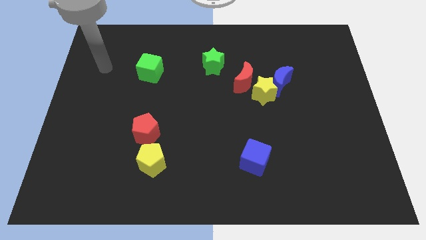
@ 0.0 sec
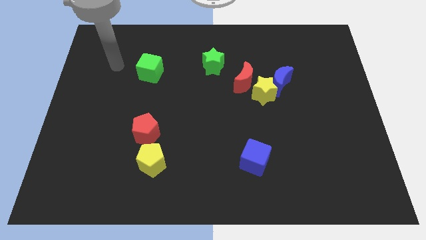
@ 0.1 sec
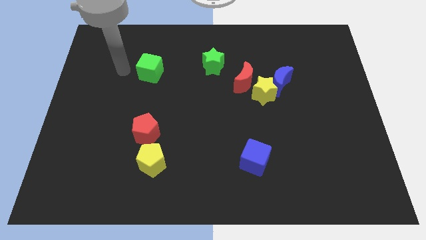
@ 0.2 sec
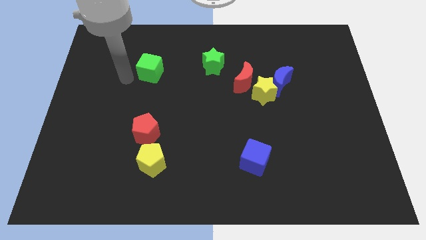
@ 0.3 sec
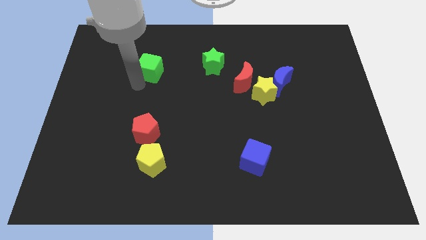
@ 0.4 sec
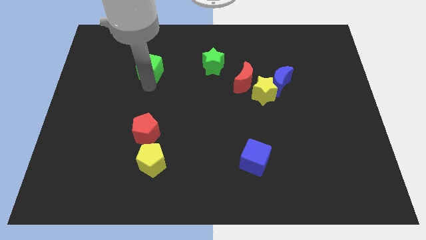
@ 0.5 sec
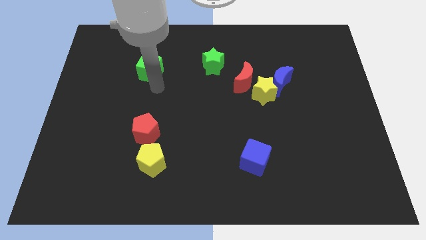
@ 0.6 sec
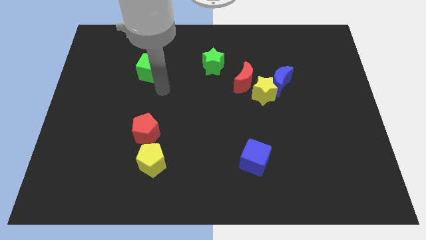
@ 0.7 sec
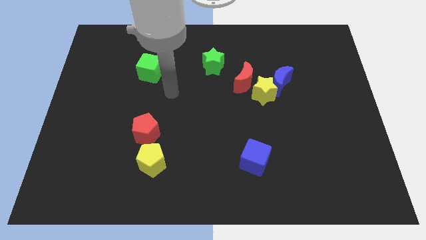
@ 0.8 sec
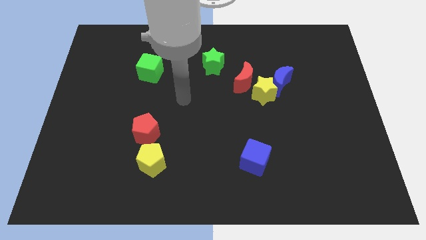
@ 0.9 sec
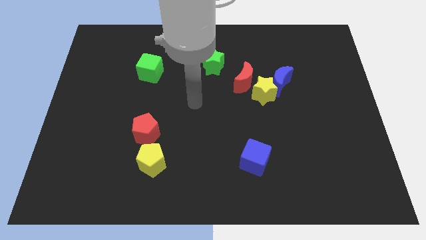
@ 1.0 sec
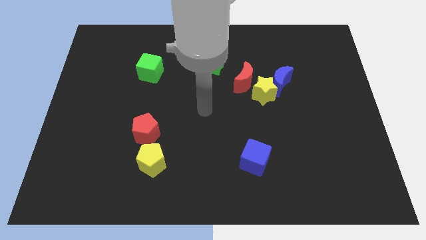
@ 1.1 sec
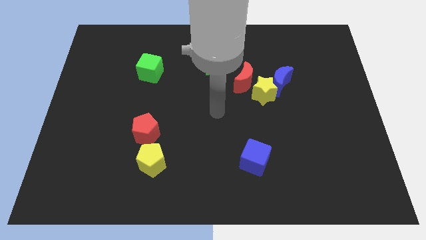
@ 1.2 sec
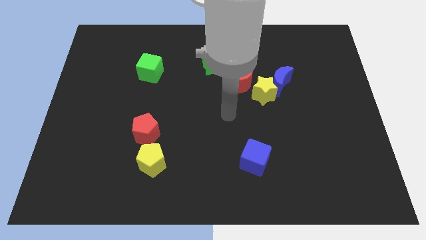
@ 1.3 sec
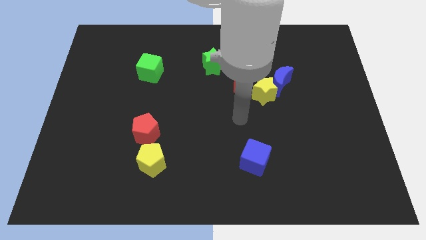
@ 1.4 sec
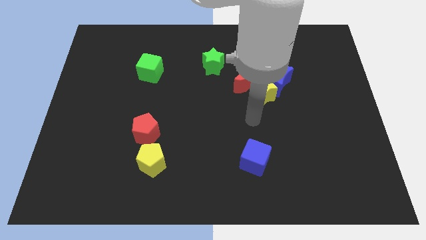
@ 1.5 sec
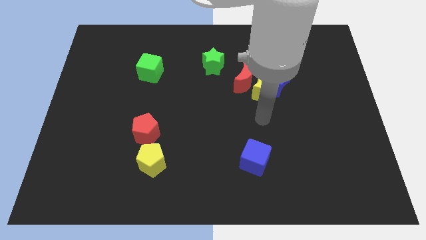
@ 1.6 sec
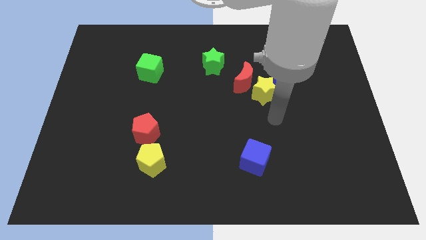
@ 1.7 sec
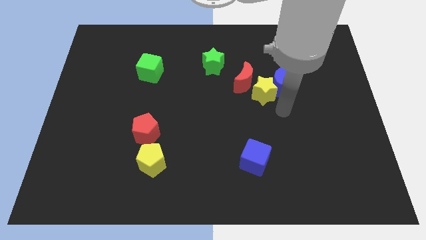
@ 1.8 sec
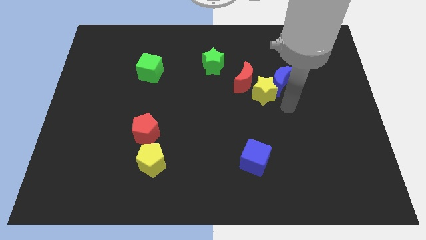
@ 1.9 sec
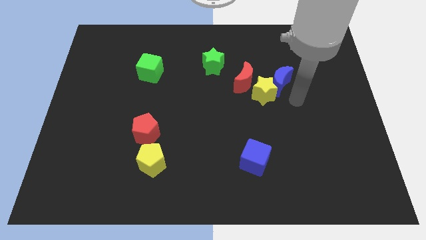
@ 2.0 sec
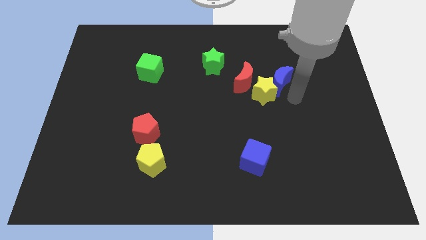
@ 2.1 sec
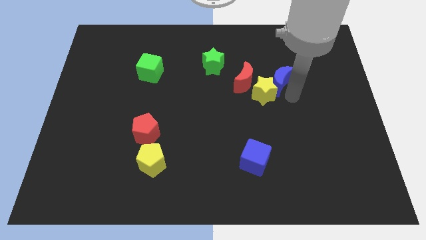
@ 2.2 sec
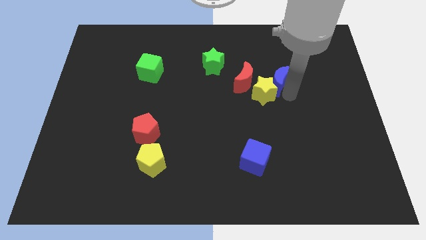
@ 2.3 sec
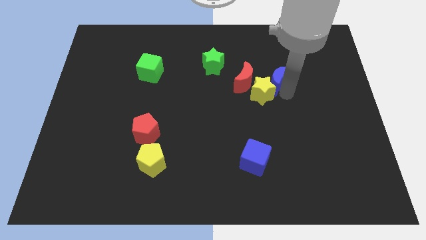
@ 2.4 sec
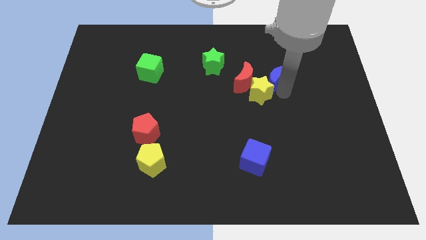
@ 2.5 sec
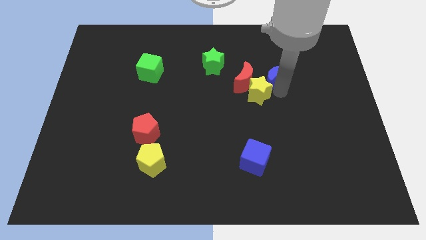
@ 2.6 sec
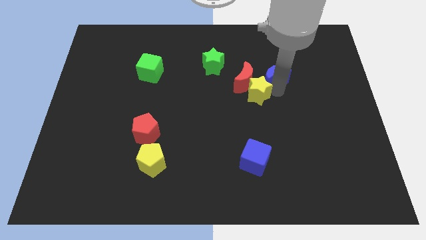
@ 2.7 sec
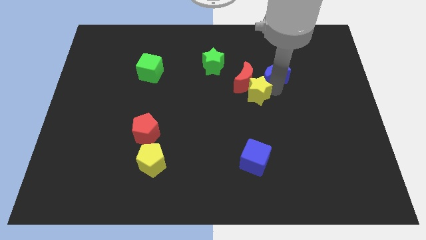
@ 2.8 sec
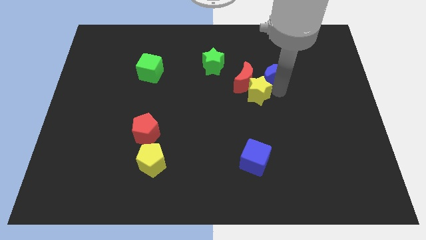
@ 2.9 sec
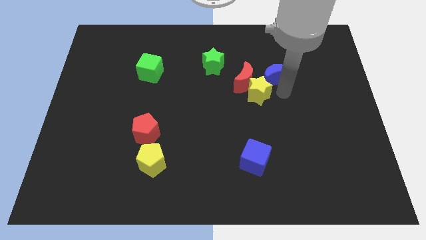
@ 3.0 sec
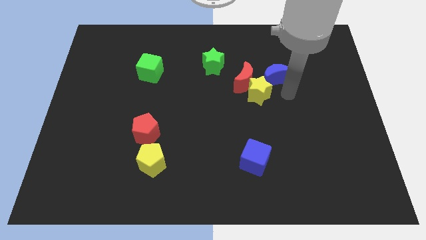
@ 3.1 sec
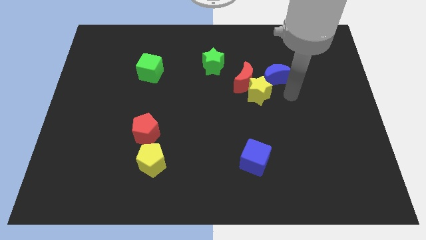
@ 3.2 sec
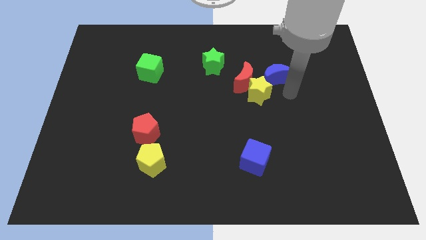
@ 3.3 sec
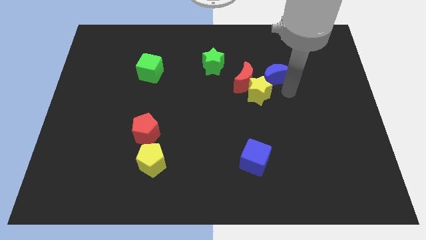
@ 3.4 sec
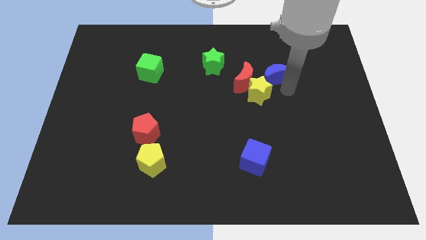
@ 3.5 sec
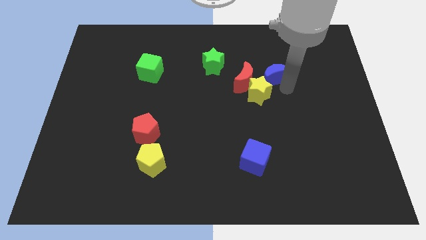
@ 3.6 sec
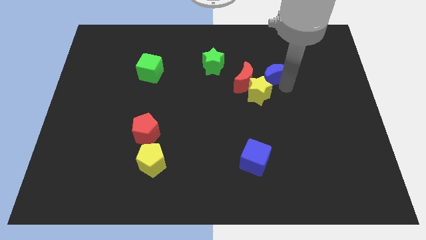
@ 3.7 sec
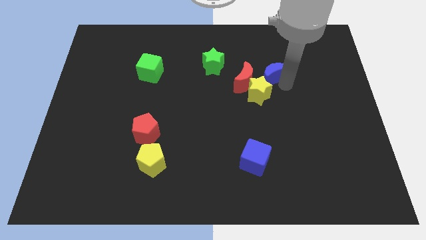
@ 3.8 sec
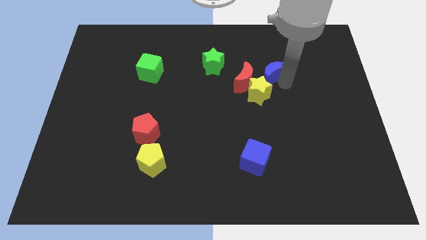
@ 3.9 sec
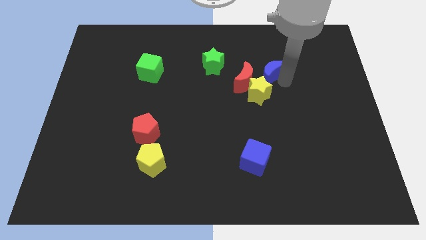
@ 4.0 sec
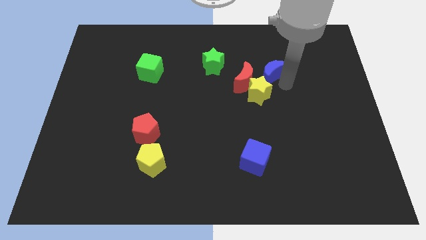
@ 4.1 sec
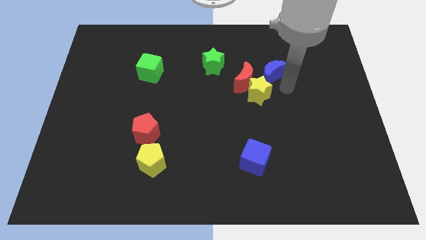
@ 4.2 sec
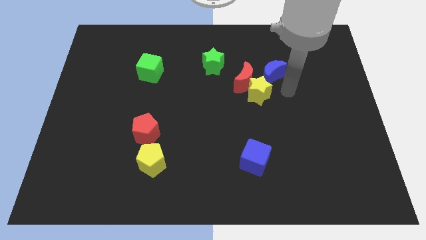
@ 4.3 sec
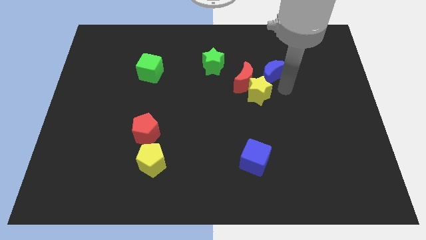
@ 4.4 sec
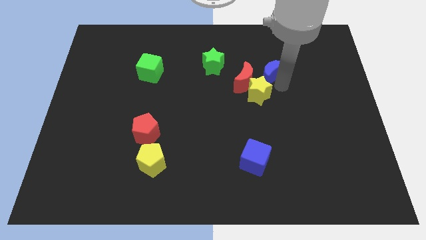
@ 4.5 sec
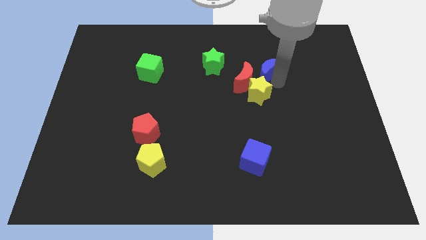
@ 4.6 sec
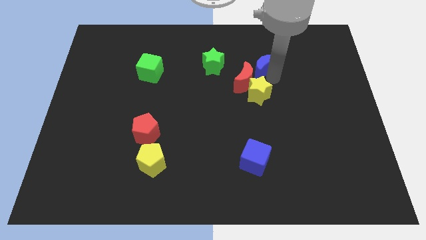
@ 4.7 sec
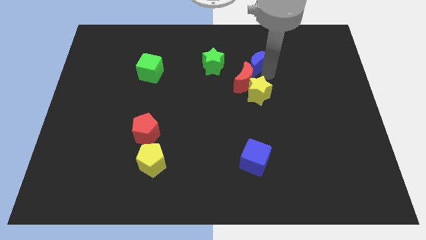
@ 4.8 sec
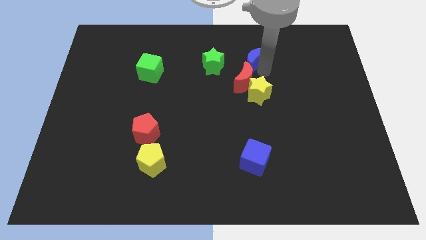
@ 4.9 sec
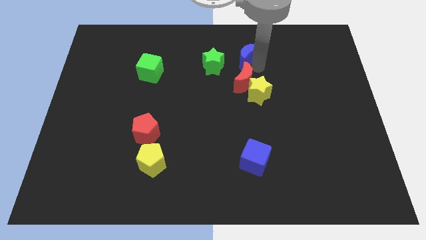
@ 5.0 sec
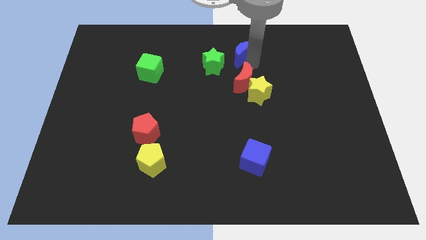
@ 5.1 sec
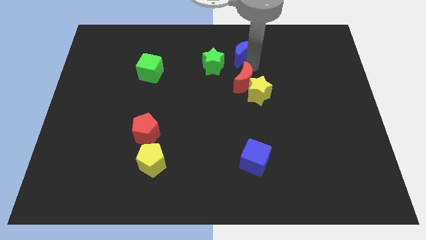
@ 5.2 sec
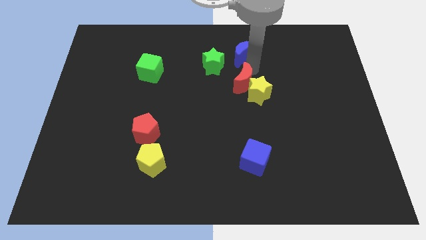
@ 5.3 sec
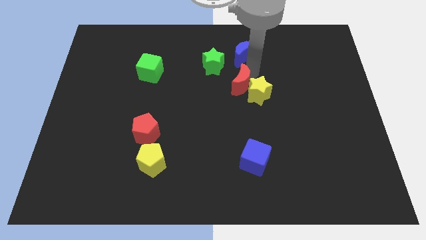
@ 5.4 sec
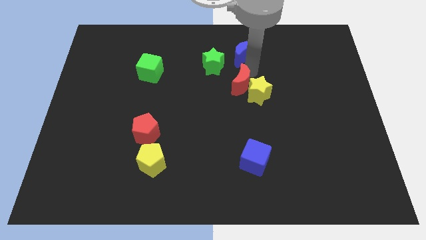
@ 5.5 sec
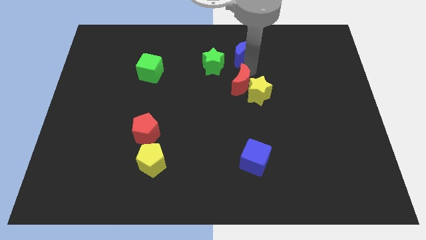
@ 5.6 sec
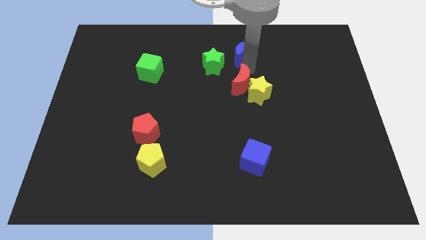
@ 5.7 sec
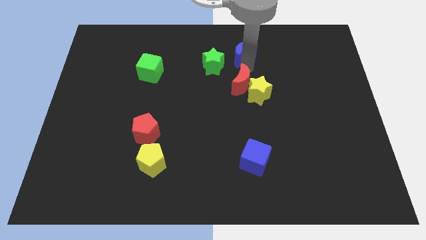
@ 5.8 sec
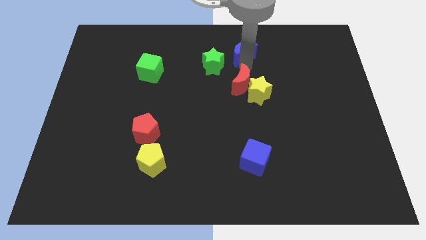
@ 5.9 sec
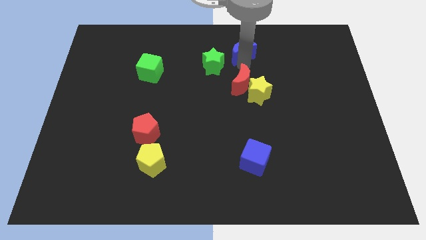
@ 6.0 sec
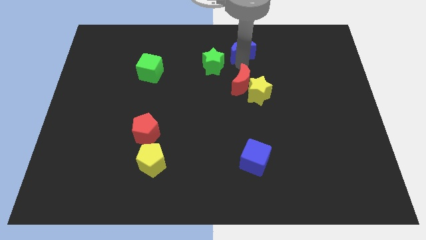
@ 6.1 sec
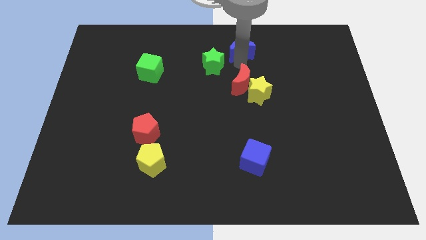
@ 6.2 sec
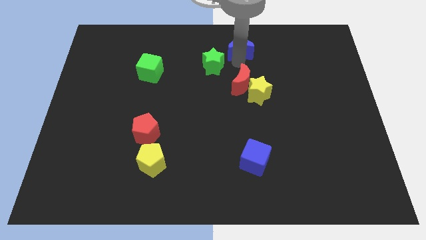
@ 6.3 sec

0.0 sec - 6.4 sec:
move the blue moon to the towards your base

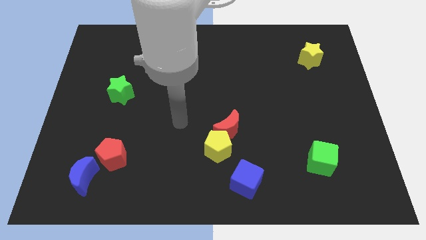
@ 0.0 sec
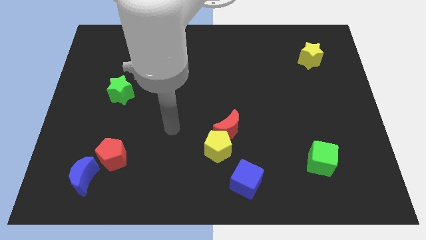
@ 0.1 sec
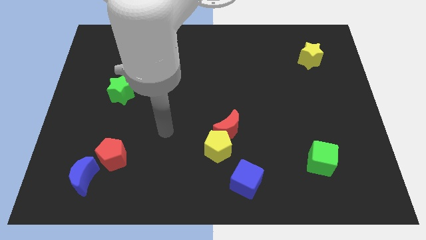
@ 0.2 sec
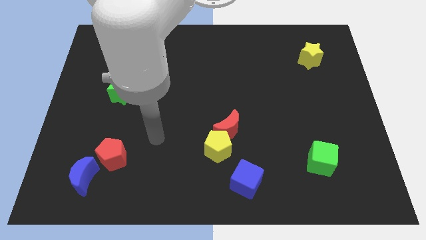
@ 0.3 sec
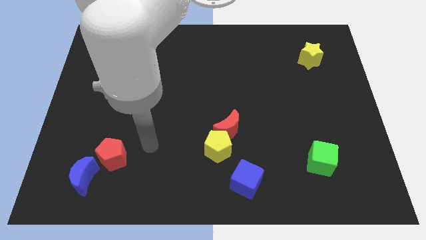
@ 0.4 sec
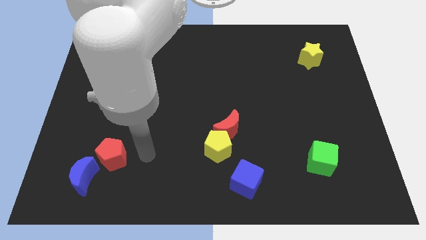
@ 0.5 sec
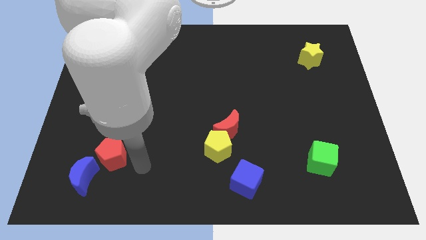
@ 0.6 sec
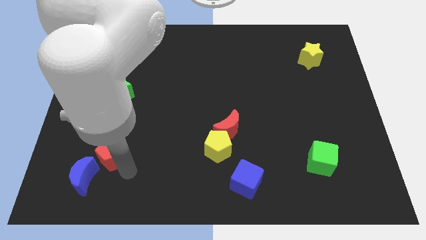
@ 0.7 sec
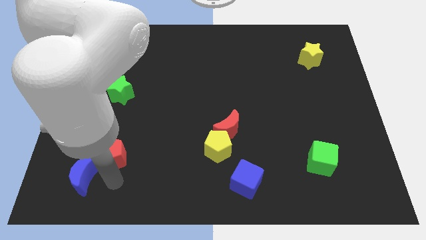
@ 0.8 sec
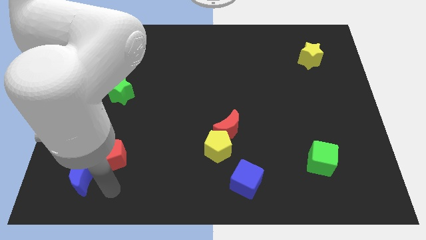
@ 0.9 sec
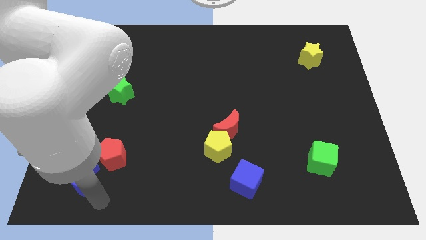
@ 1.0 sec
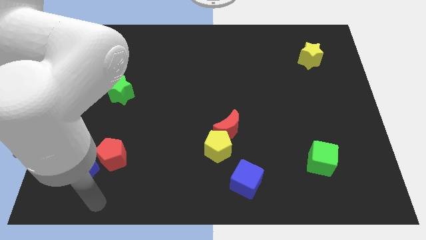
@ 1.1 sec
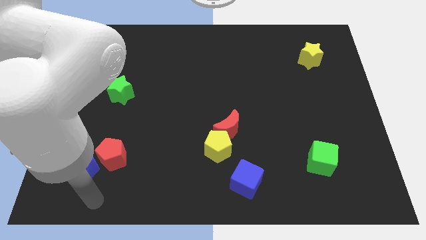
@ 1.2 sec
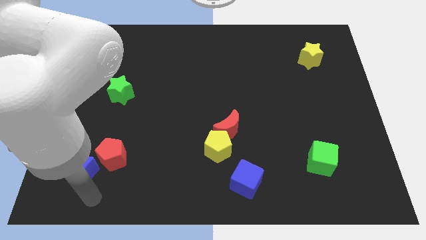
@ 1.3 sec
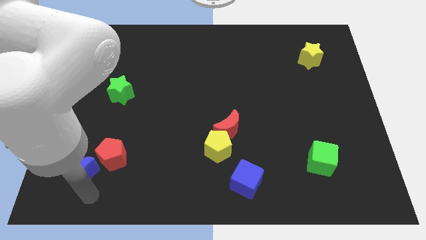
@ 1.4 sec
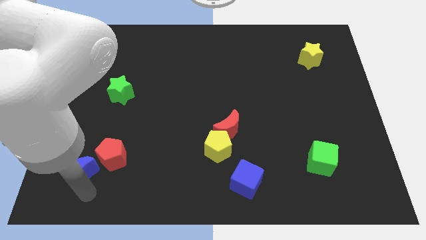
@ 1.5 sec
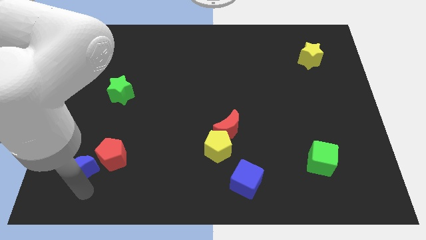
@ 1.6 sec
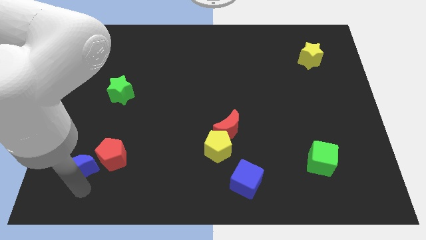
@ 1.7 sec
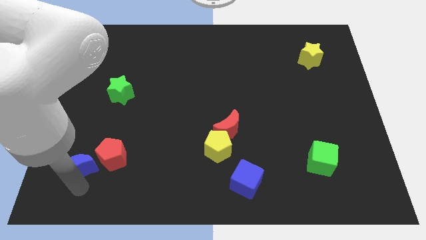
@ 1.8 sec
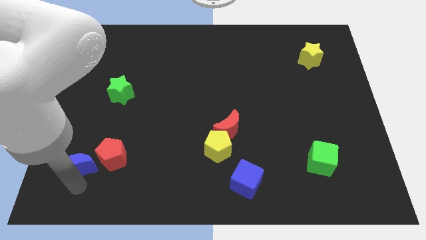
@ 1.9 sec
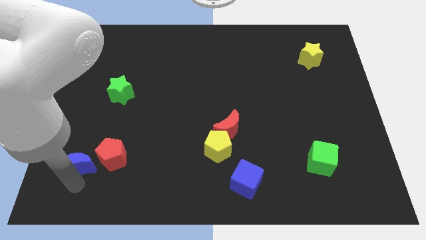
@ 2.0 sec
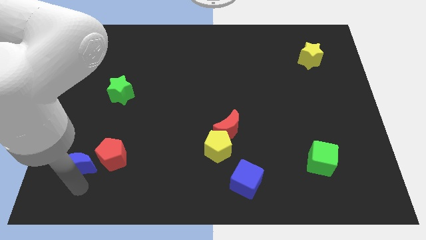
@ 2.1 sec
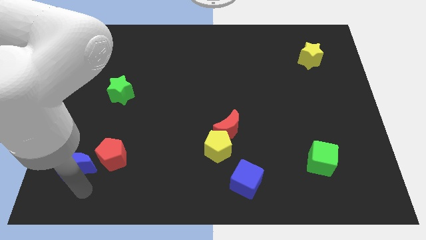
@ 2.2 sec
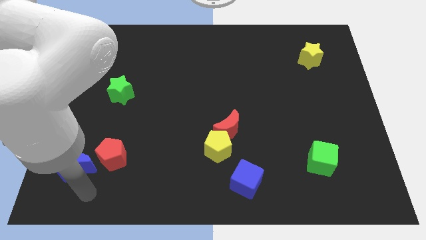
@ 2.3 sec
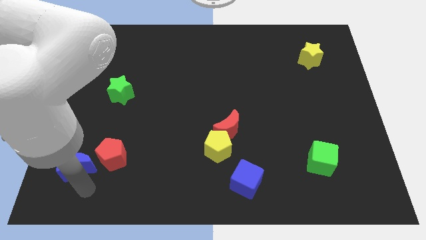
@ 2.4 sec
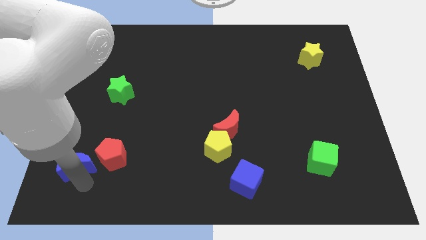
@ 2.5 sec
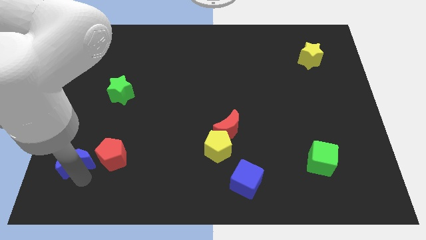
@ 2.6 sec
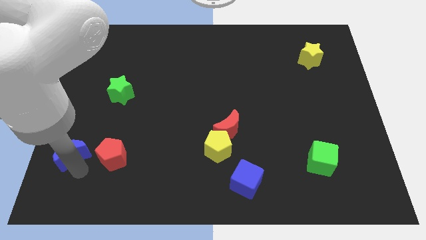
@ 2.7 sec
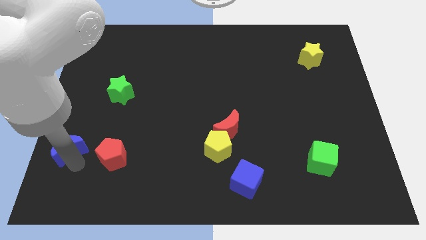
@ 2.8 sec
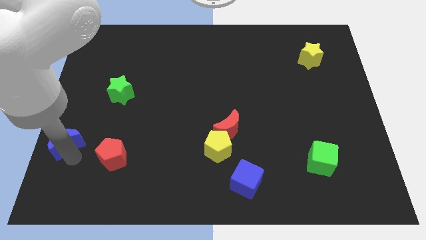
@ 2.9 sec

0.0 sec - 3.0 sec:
slide the blue moon to the left side of the board
